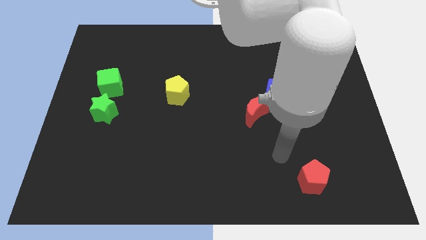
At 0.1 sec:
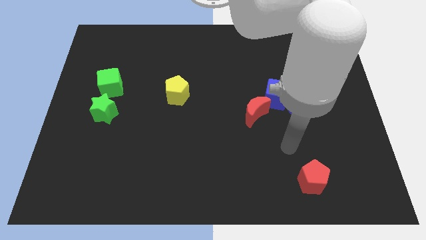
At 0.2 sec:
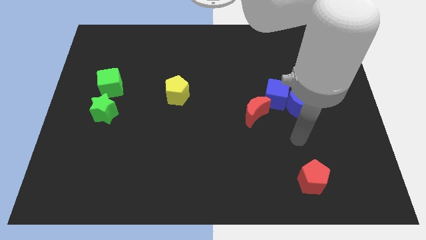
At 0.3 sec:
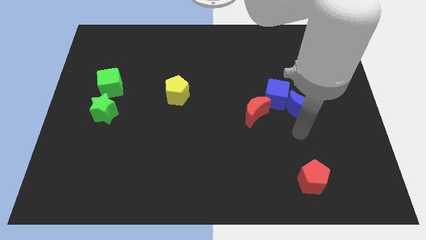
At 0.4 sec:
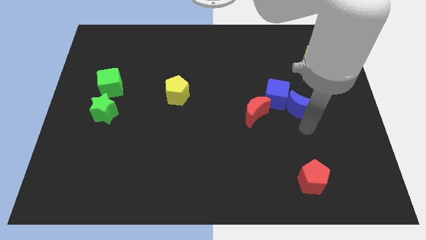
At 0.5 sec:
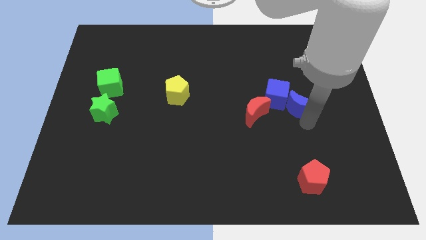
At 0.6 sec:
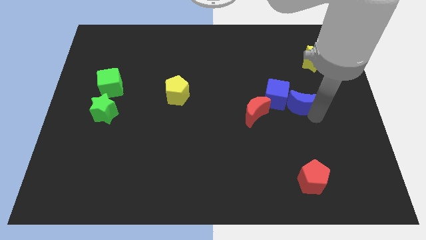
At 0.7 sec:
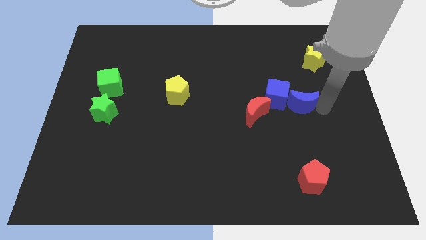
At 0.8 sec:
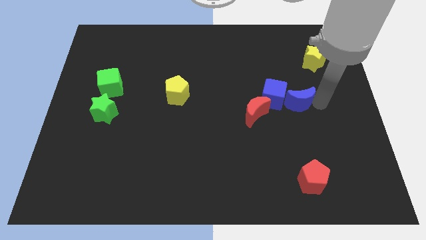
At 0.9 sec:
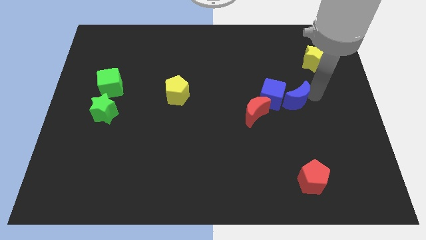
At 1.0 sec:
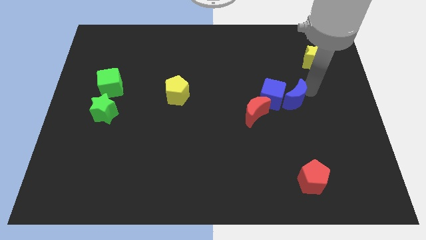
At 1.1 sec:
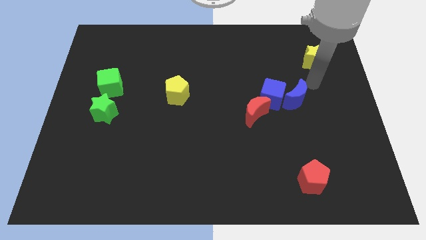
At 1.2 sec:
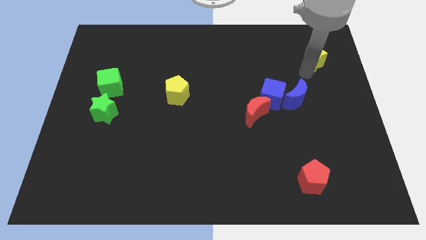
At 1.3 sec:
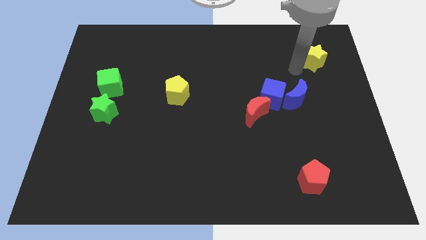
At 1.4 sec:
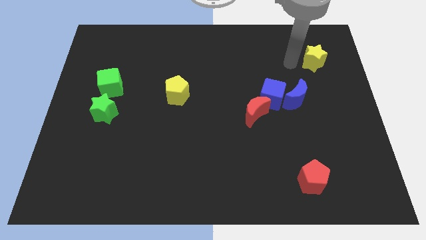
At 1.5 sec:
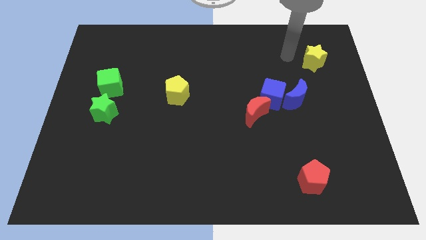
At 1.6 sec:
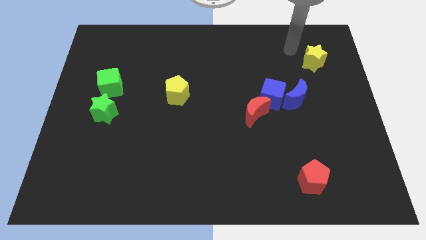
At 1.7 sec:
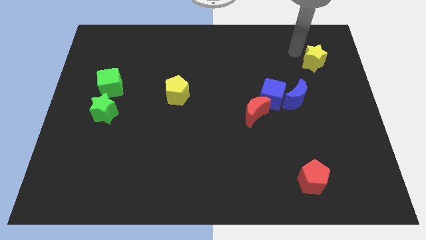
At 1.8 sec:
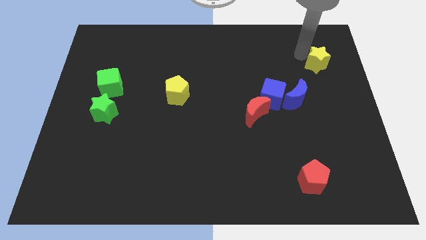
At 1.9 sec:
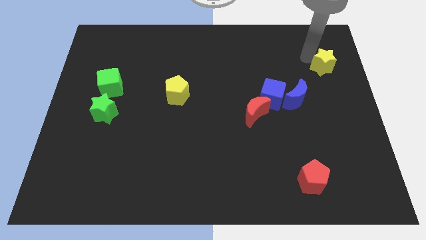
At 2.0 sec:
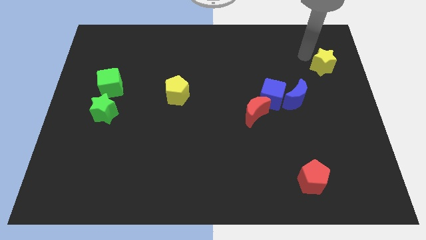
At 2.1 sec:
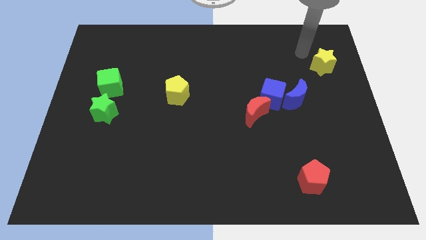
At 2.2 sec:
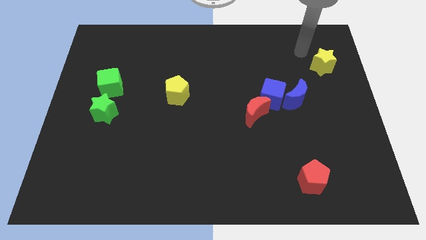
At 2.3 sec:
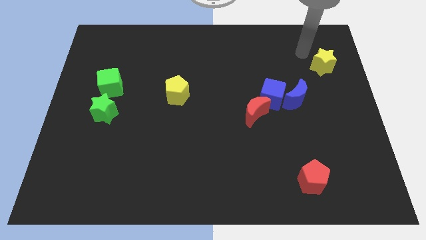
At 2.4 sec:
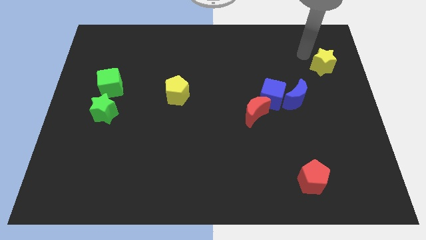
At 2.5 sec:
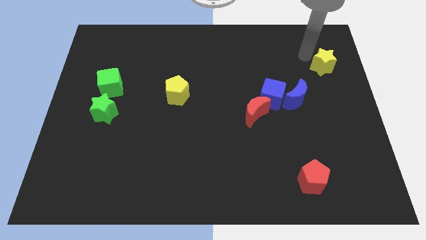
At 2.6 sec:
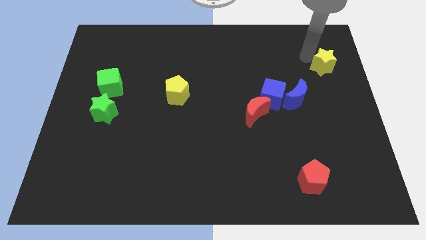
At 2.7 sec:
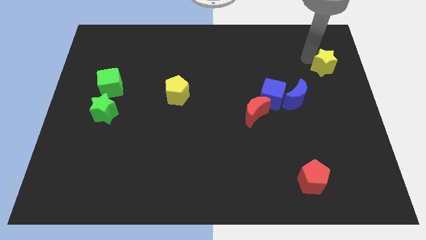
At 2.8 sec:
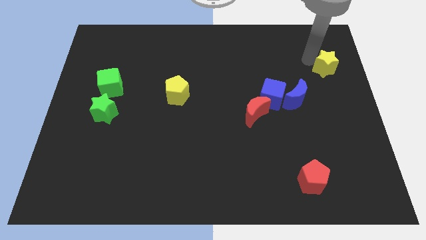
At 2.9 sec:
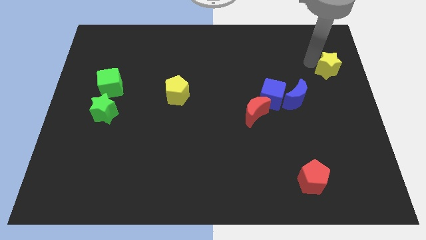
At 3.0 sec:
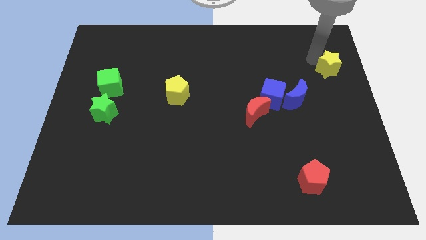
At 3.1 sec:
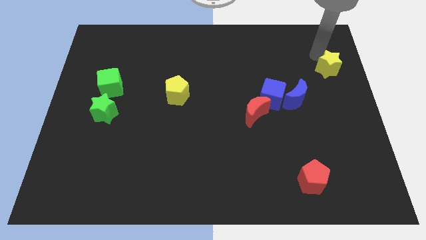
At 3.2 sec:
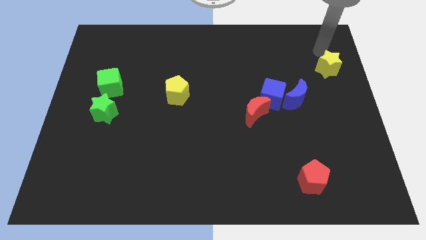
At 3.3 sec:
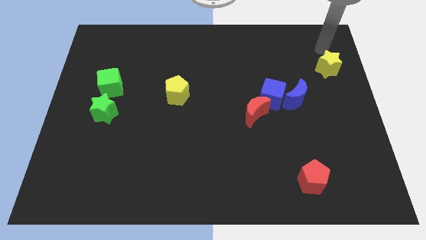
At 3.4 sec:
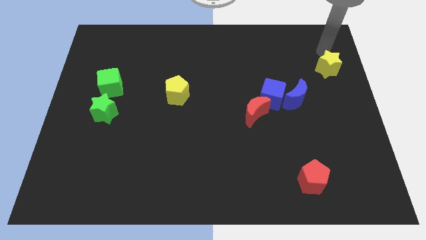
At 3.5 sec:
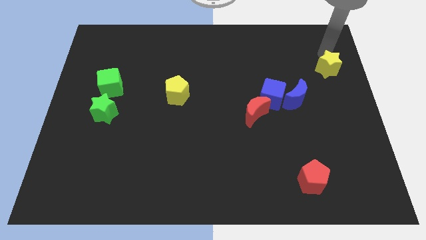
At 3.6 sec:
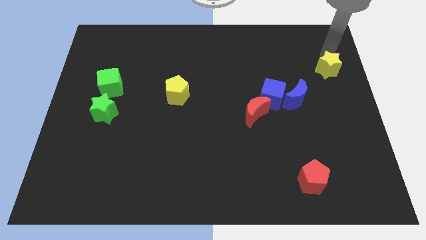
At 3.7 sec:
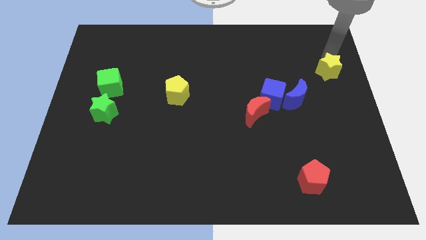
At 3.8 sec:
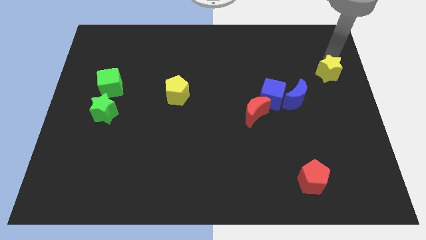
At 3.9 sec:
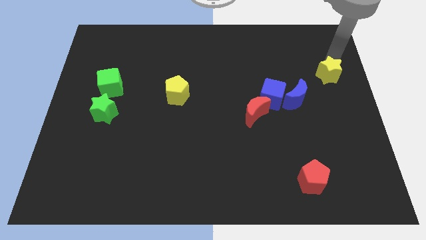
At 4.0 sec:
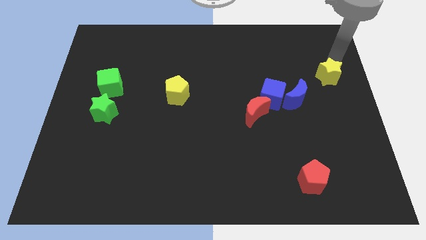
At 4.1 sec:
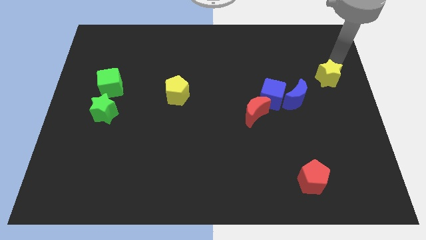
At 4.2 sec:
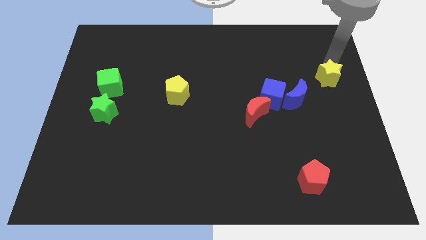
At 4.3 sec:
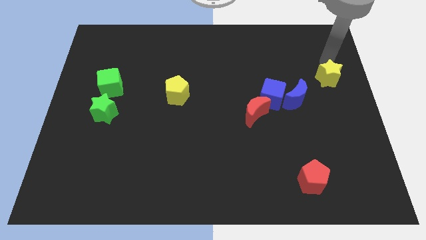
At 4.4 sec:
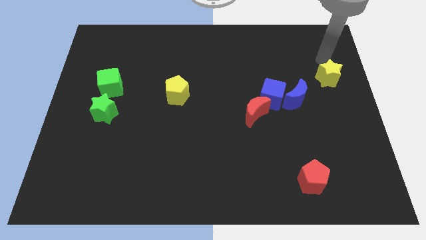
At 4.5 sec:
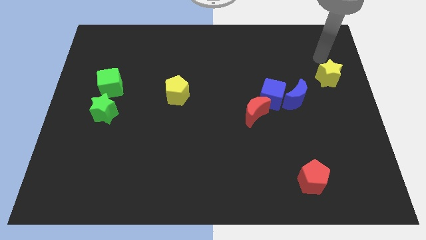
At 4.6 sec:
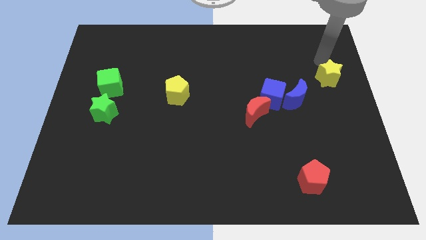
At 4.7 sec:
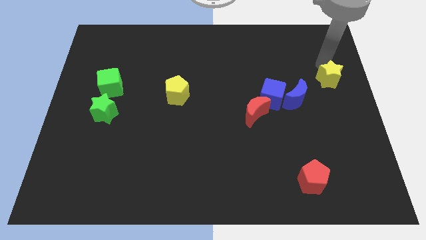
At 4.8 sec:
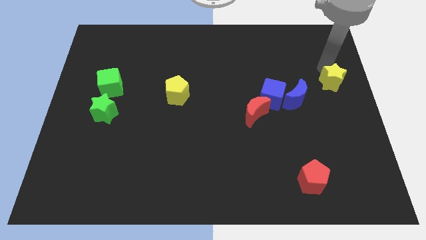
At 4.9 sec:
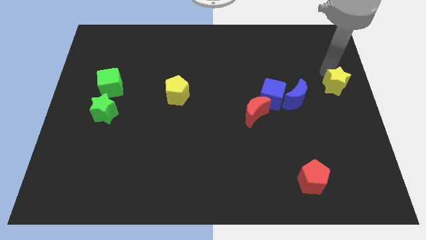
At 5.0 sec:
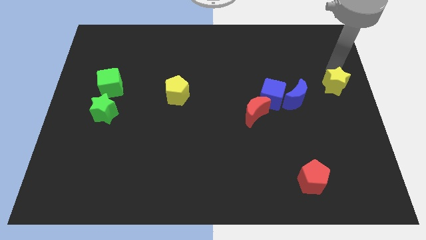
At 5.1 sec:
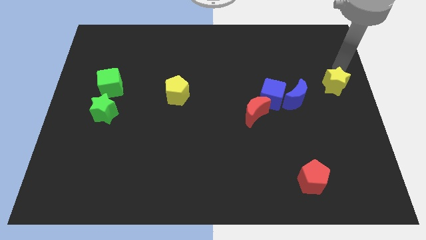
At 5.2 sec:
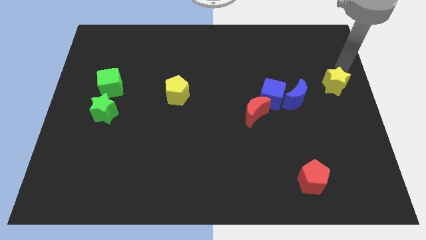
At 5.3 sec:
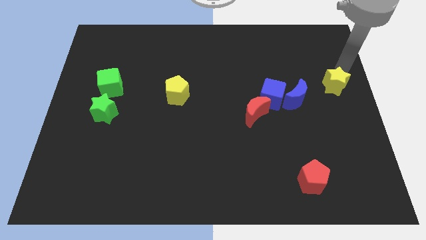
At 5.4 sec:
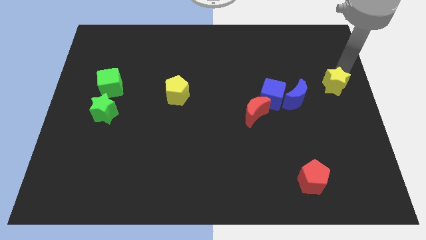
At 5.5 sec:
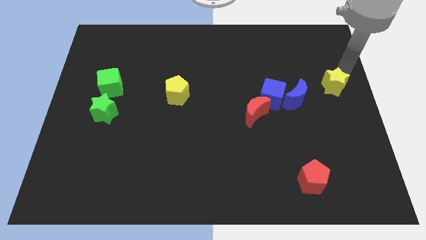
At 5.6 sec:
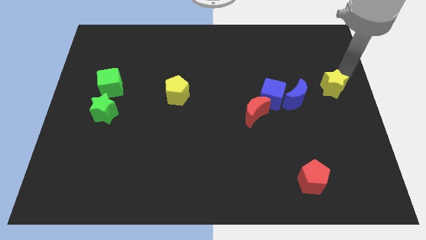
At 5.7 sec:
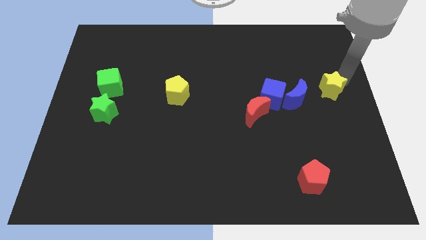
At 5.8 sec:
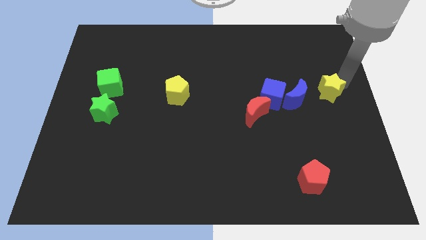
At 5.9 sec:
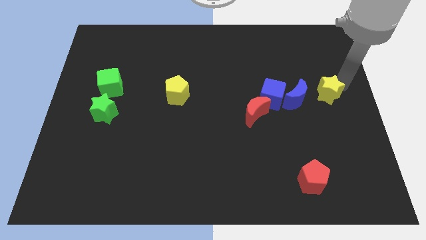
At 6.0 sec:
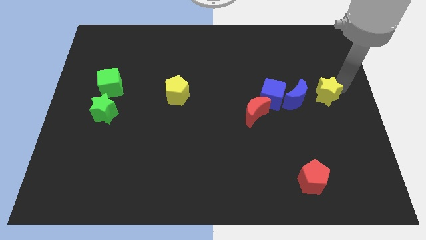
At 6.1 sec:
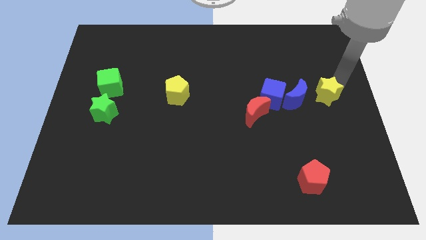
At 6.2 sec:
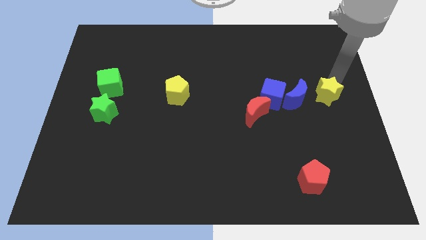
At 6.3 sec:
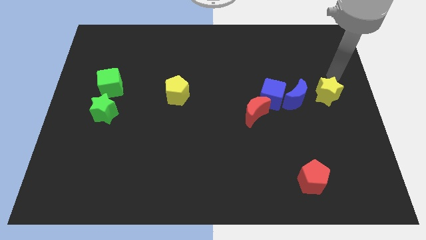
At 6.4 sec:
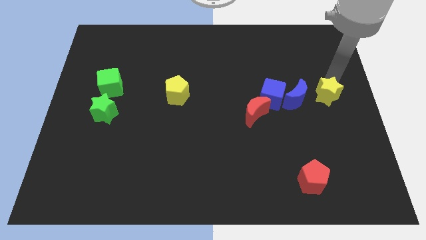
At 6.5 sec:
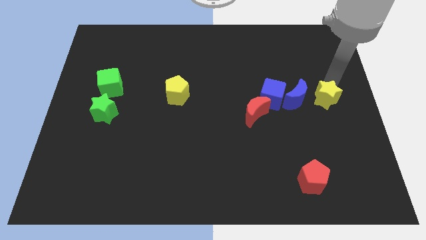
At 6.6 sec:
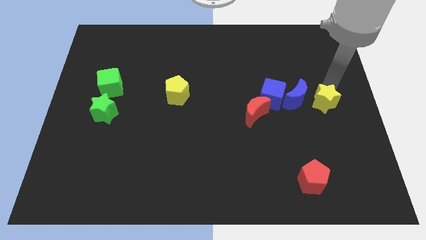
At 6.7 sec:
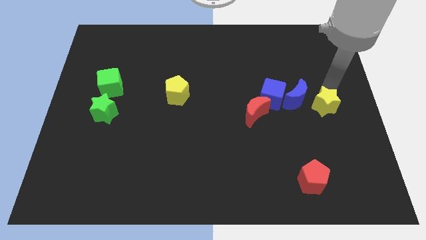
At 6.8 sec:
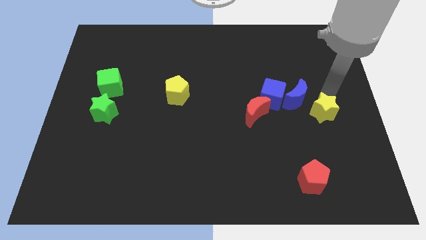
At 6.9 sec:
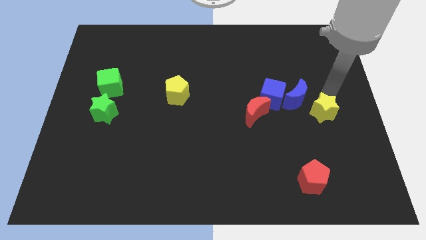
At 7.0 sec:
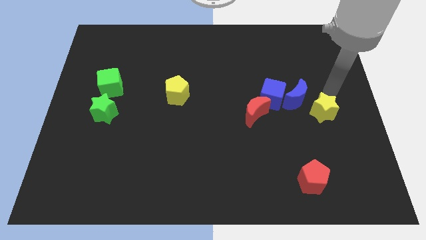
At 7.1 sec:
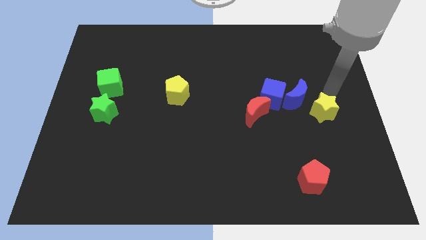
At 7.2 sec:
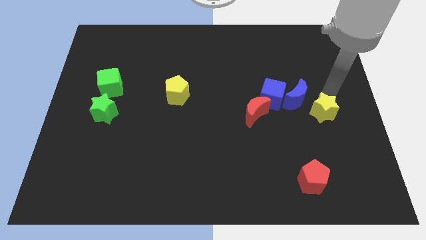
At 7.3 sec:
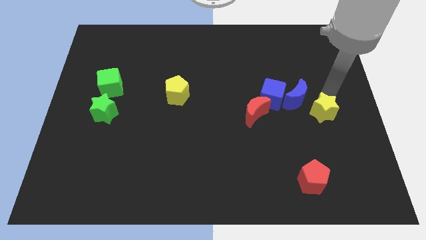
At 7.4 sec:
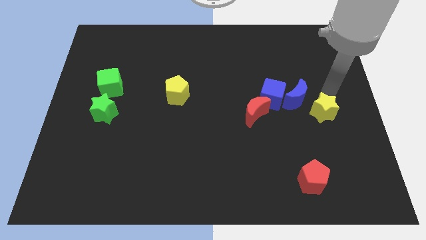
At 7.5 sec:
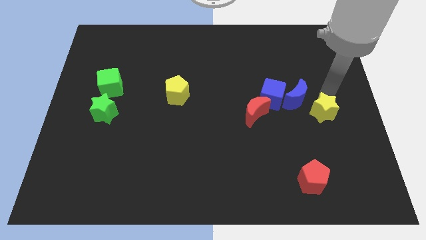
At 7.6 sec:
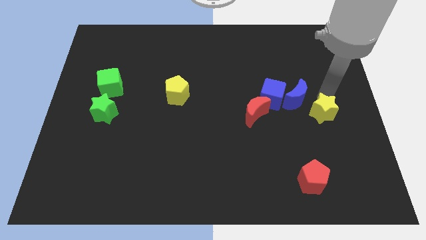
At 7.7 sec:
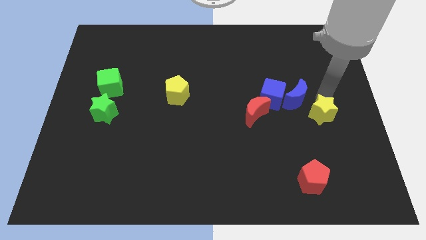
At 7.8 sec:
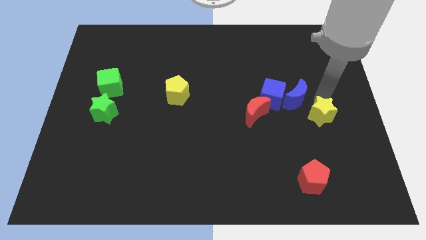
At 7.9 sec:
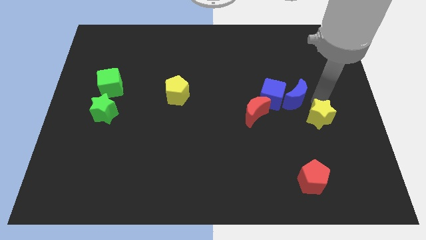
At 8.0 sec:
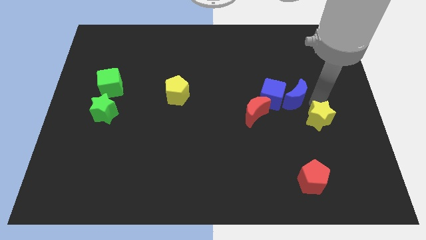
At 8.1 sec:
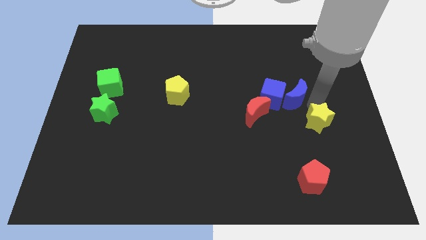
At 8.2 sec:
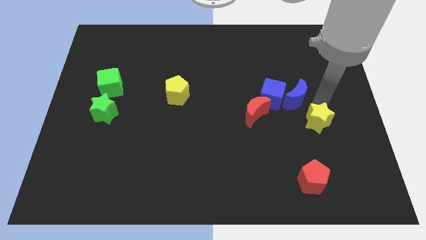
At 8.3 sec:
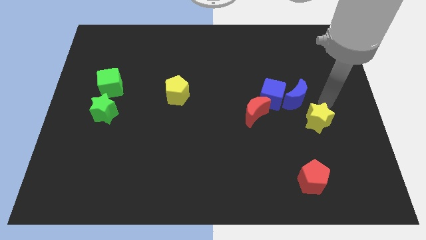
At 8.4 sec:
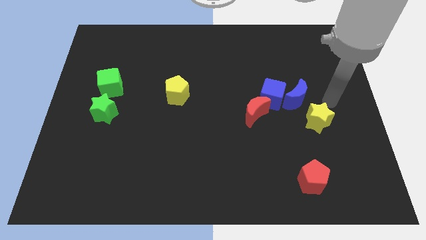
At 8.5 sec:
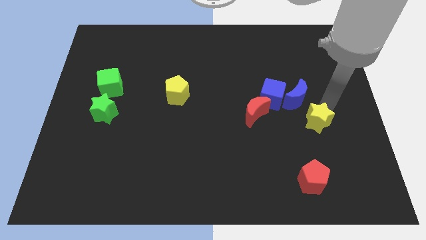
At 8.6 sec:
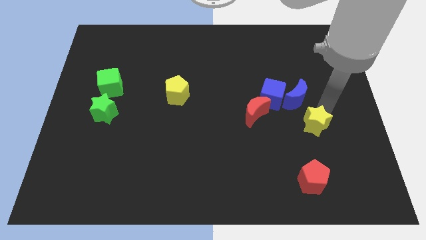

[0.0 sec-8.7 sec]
push the yellow star above the red pentagon
